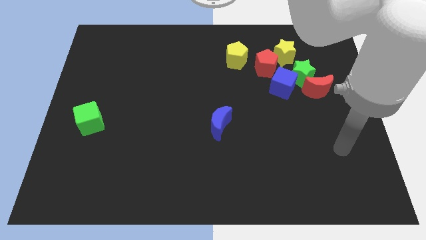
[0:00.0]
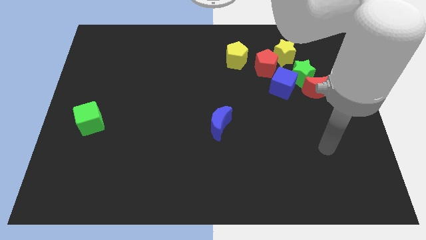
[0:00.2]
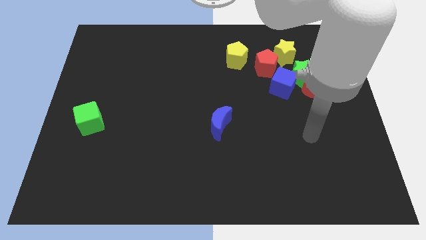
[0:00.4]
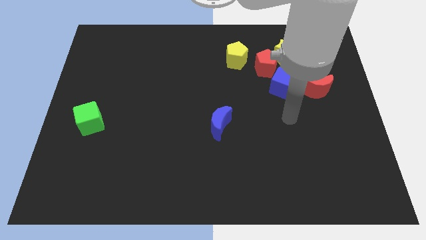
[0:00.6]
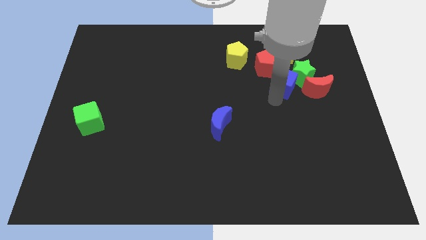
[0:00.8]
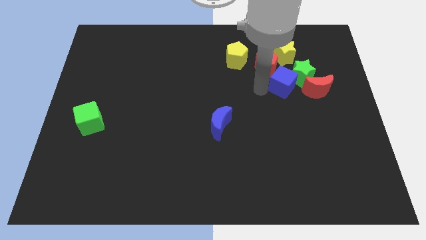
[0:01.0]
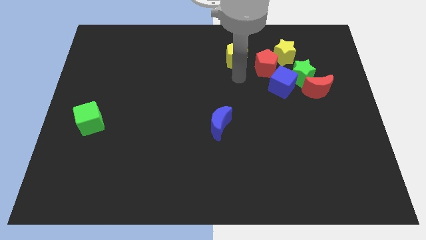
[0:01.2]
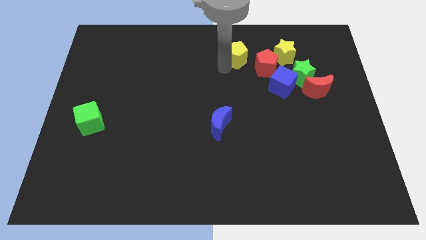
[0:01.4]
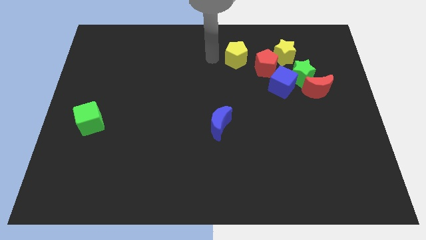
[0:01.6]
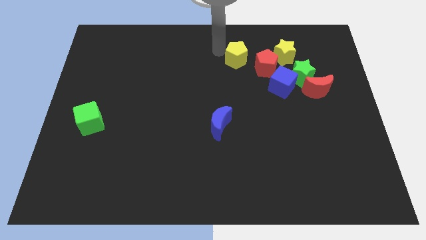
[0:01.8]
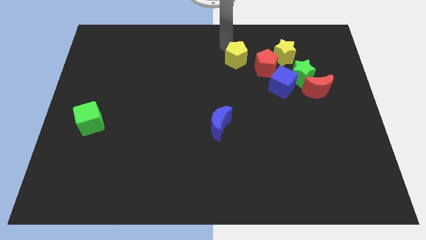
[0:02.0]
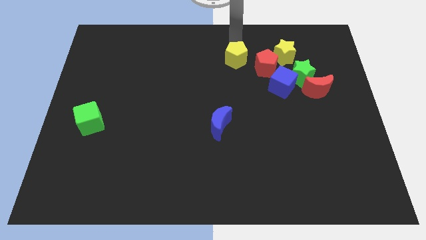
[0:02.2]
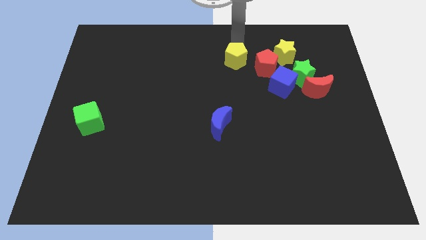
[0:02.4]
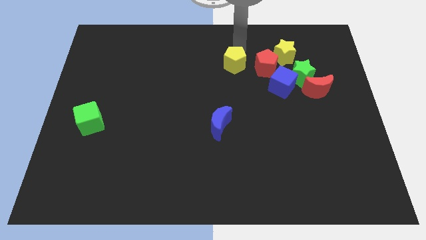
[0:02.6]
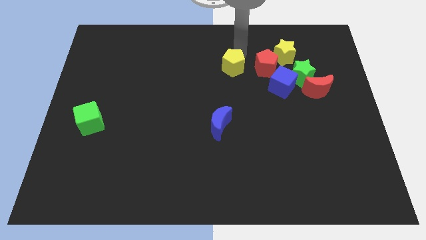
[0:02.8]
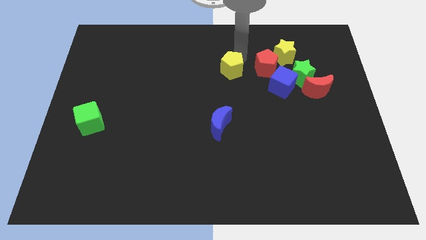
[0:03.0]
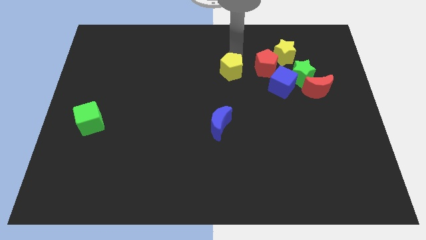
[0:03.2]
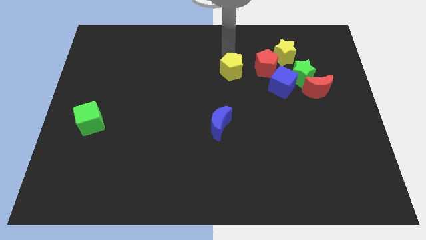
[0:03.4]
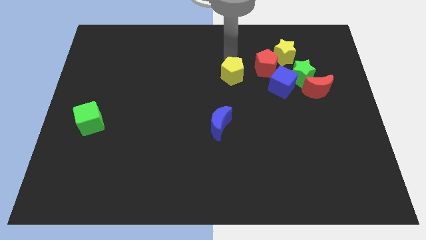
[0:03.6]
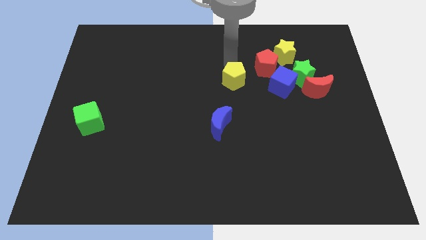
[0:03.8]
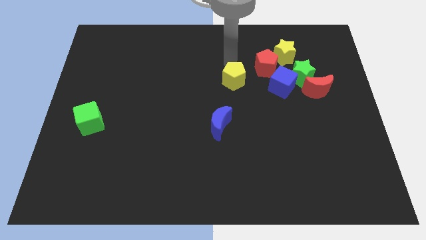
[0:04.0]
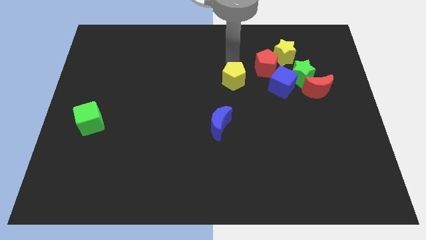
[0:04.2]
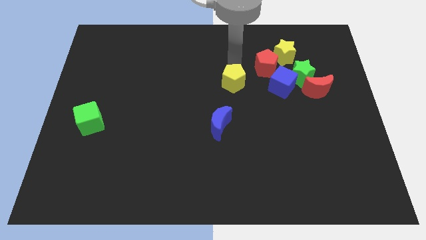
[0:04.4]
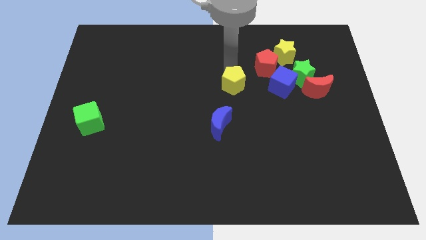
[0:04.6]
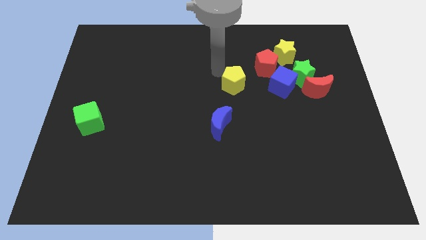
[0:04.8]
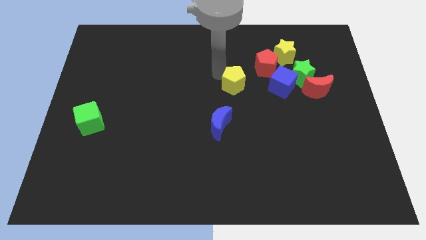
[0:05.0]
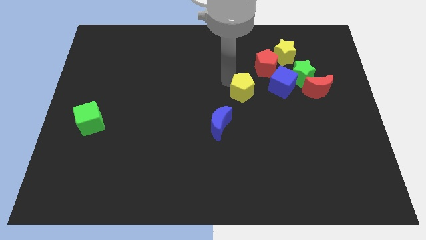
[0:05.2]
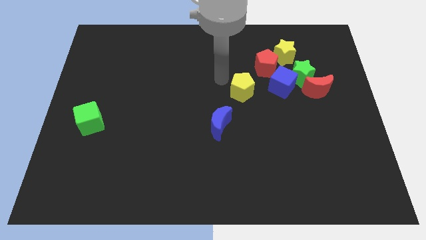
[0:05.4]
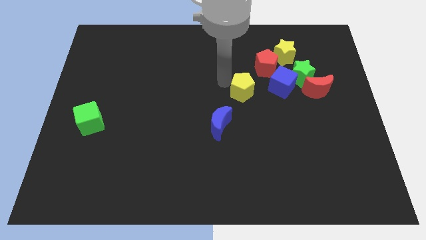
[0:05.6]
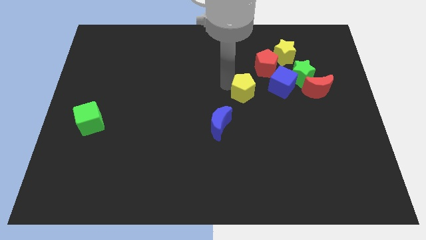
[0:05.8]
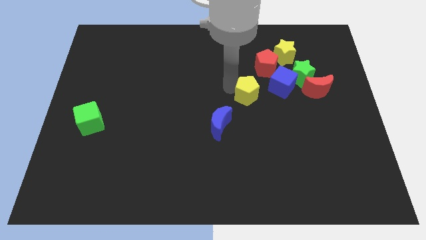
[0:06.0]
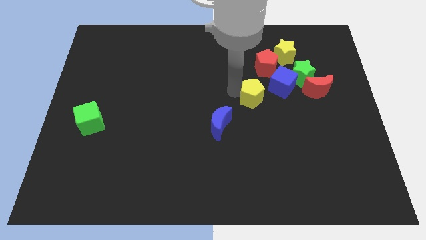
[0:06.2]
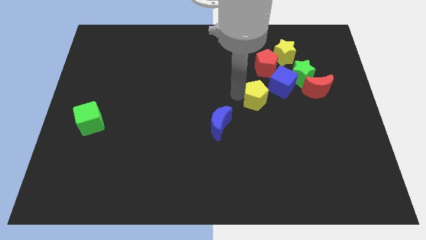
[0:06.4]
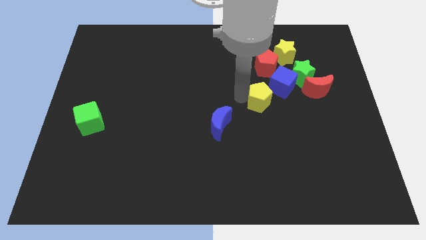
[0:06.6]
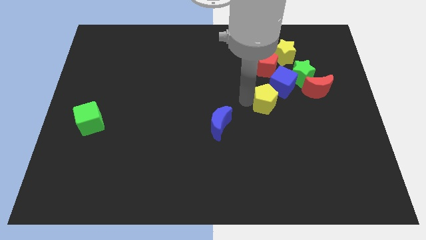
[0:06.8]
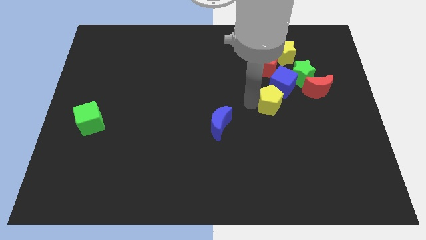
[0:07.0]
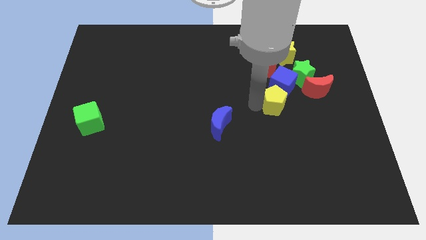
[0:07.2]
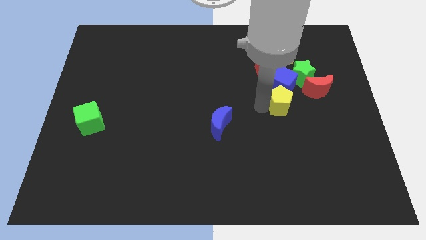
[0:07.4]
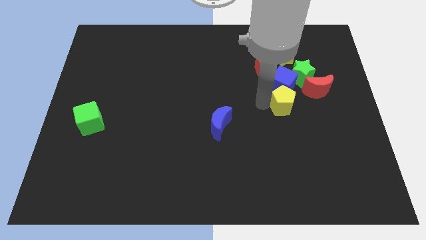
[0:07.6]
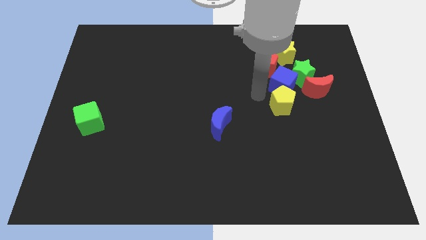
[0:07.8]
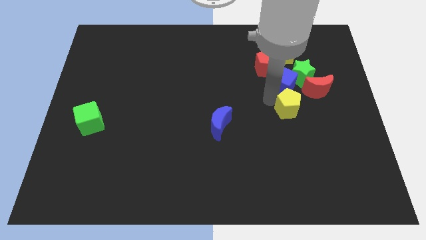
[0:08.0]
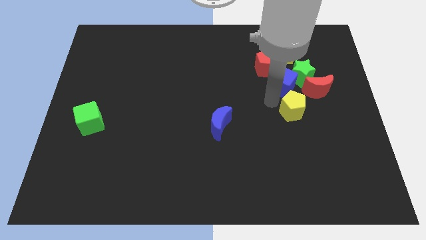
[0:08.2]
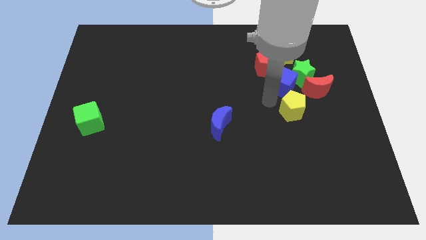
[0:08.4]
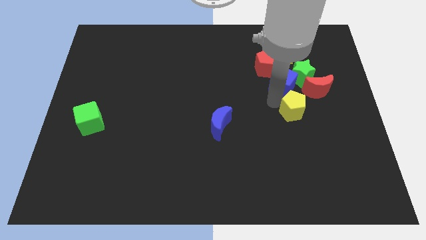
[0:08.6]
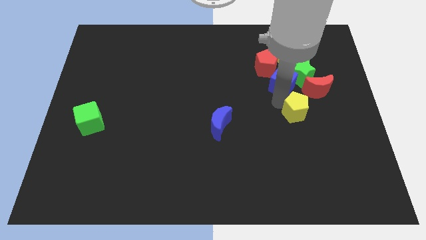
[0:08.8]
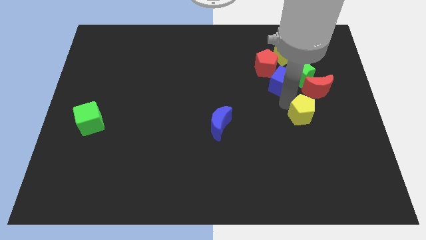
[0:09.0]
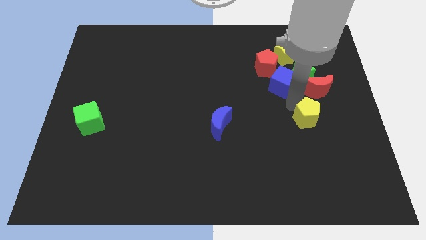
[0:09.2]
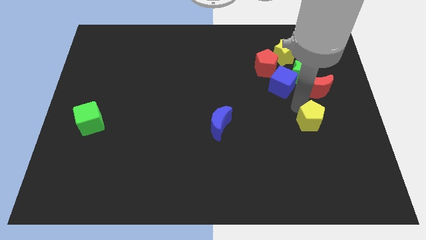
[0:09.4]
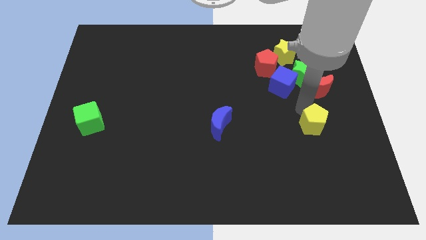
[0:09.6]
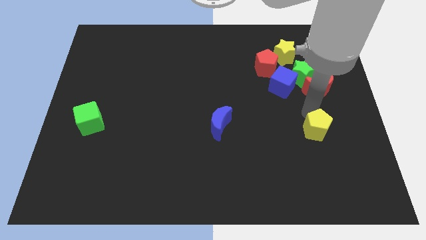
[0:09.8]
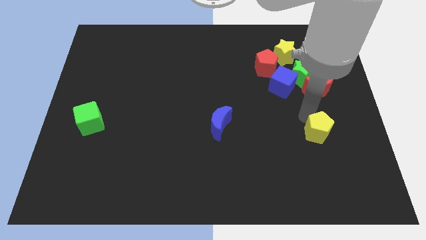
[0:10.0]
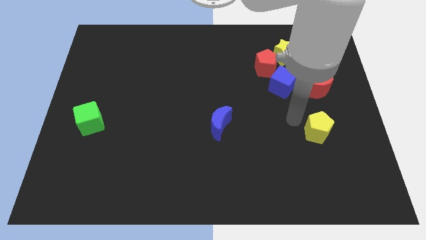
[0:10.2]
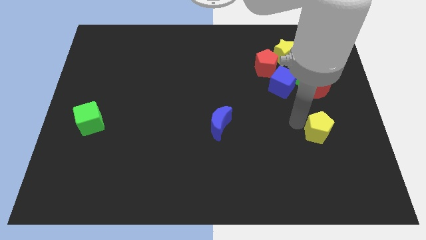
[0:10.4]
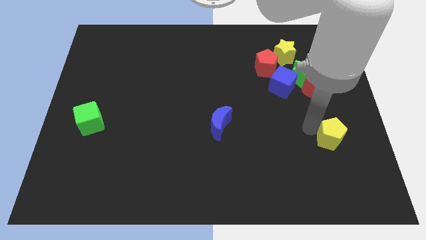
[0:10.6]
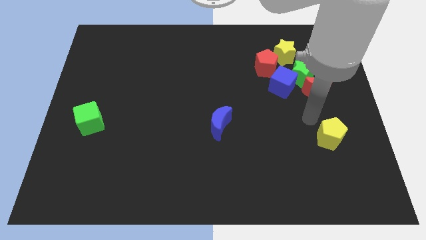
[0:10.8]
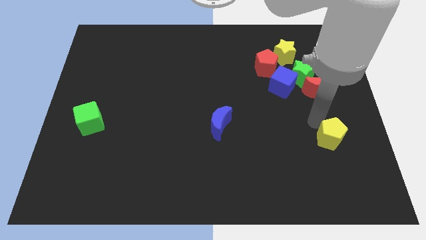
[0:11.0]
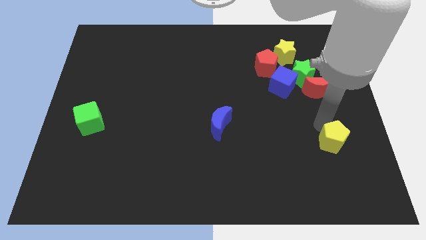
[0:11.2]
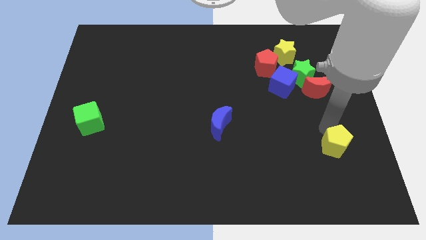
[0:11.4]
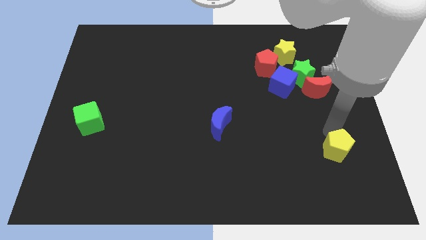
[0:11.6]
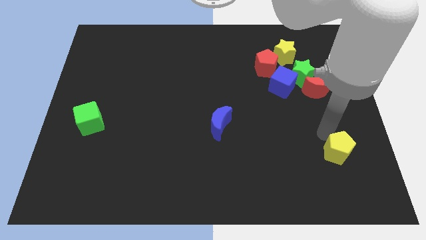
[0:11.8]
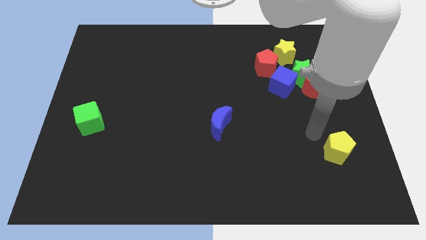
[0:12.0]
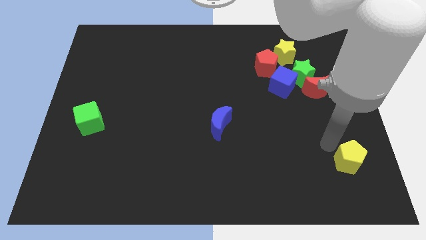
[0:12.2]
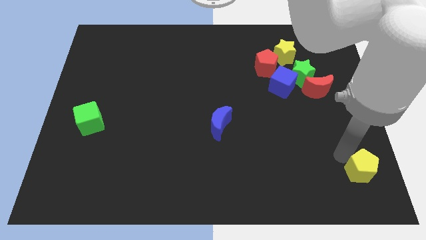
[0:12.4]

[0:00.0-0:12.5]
put the yellow pentagon to the bottom right
